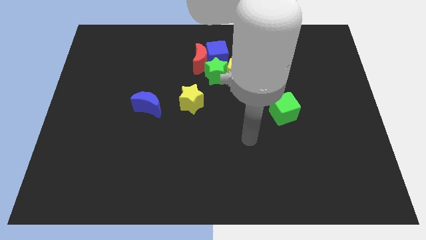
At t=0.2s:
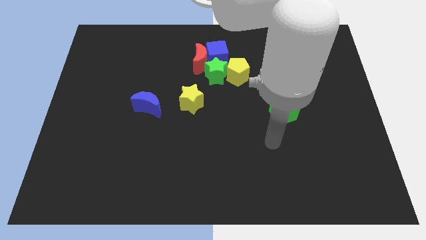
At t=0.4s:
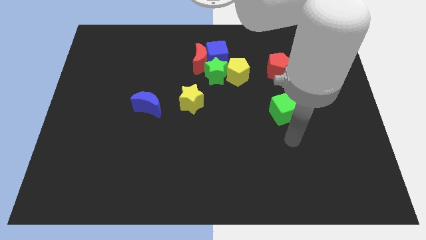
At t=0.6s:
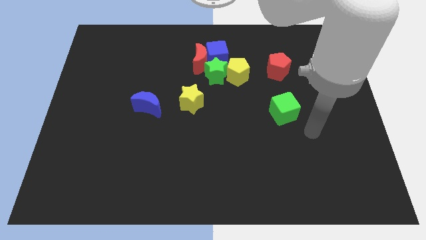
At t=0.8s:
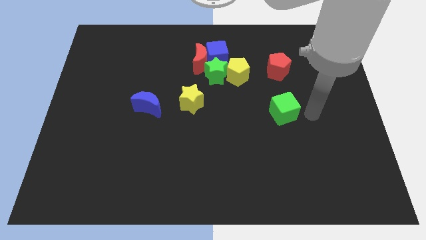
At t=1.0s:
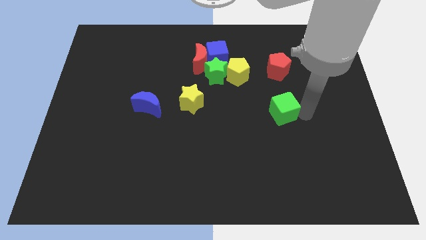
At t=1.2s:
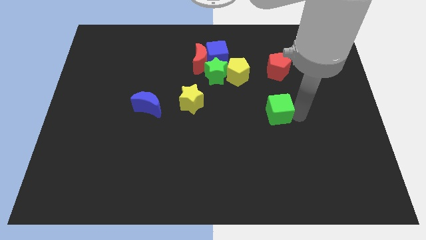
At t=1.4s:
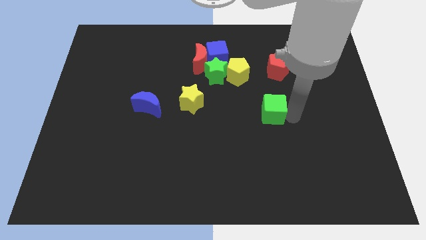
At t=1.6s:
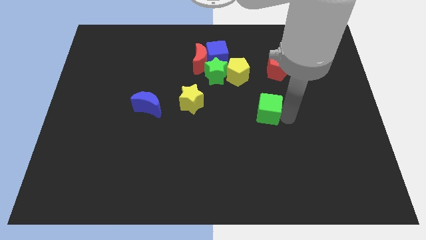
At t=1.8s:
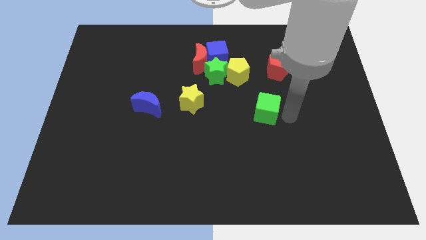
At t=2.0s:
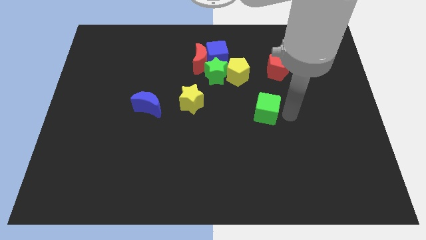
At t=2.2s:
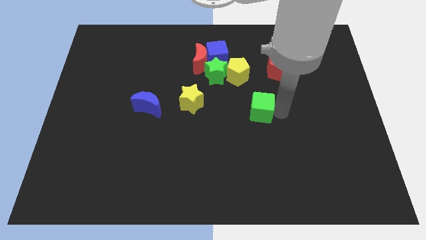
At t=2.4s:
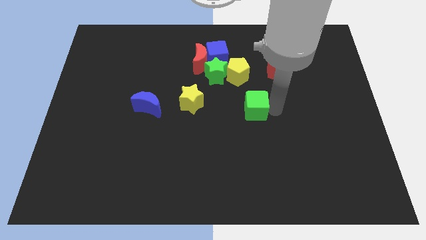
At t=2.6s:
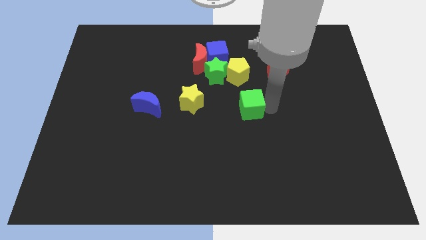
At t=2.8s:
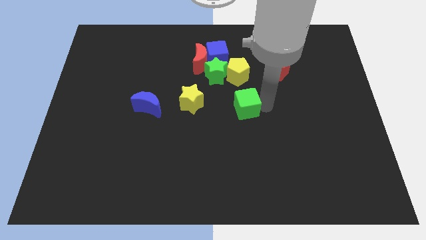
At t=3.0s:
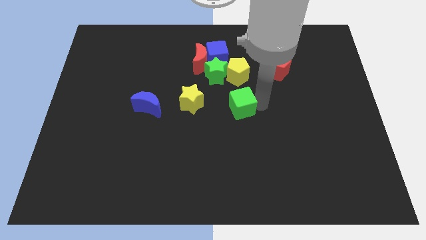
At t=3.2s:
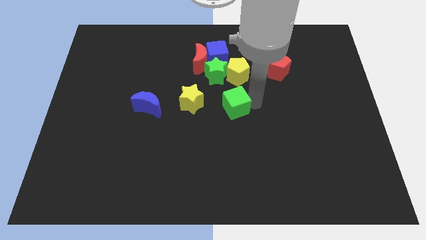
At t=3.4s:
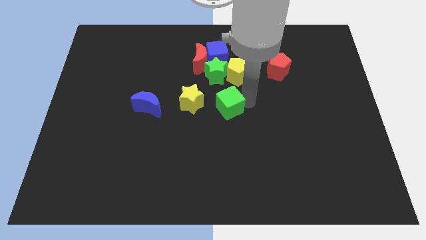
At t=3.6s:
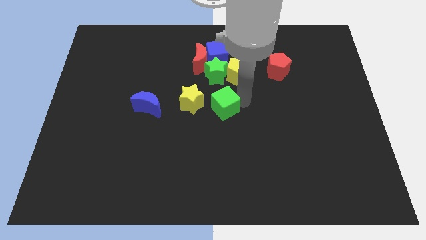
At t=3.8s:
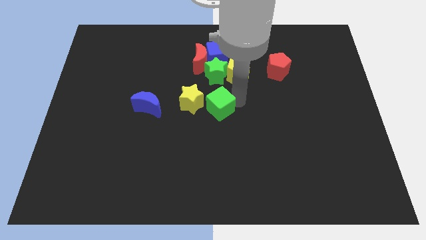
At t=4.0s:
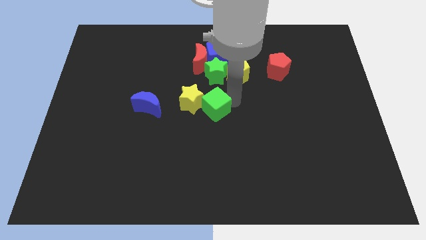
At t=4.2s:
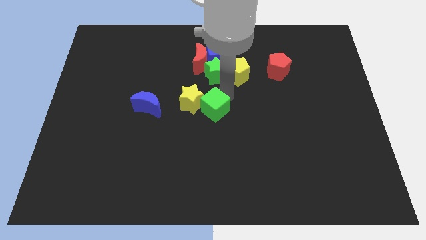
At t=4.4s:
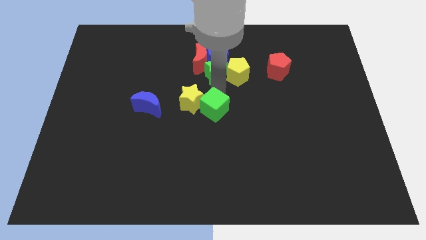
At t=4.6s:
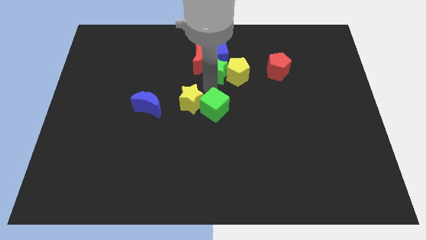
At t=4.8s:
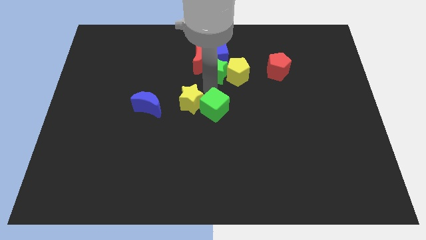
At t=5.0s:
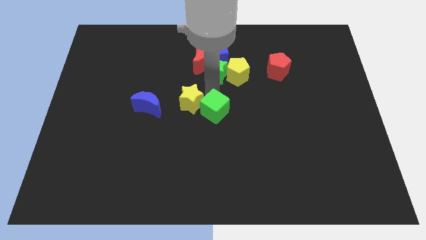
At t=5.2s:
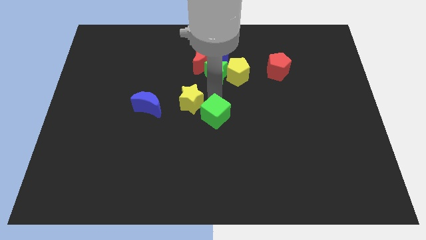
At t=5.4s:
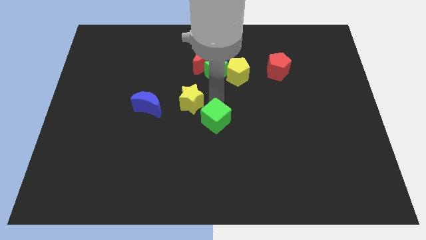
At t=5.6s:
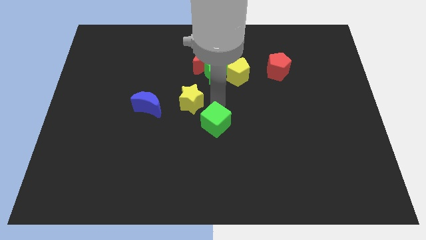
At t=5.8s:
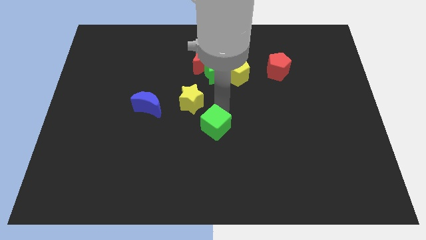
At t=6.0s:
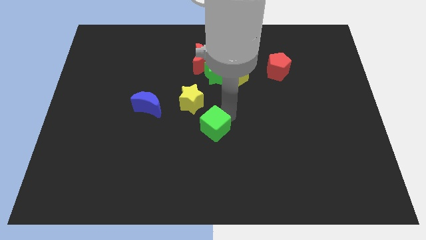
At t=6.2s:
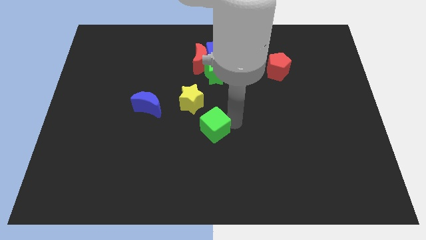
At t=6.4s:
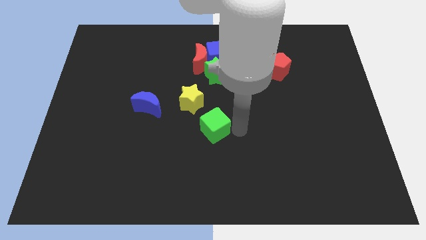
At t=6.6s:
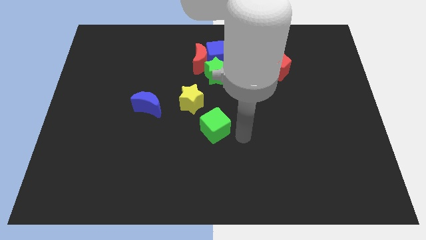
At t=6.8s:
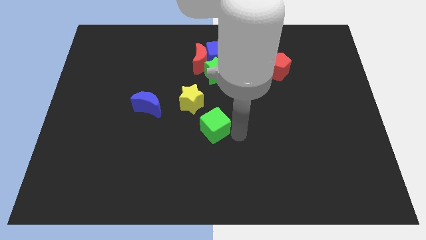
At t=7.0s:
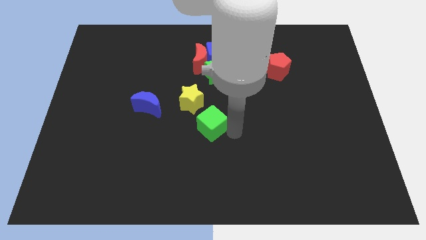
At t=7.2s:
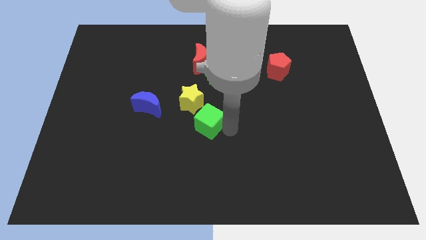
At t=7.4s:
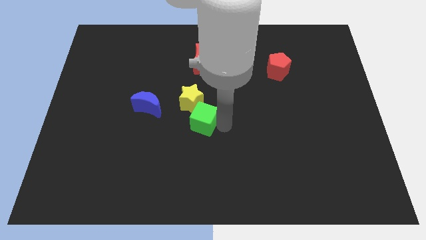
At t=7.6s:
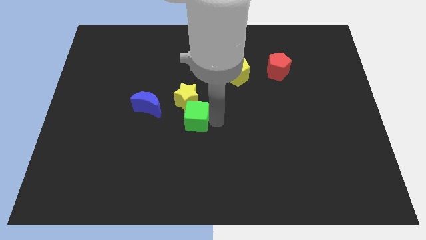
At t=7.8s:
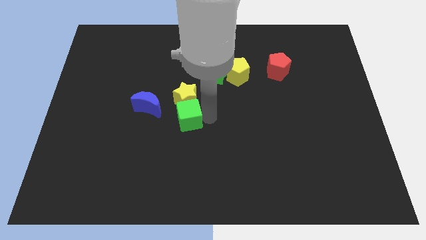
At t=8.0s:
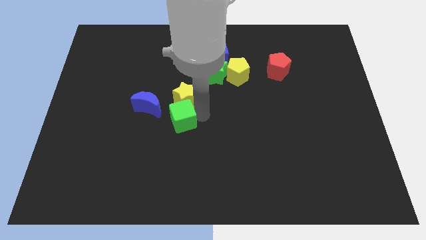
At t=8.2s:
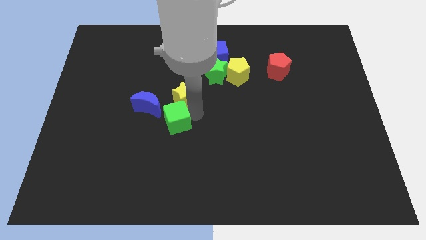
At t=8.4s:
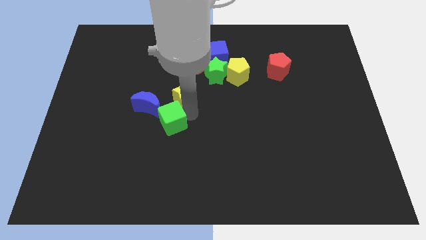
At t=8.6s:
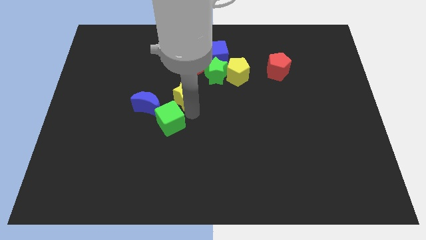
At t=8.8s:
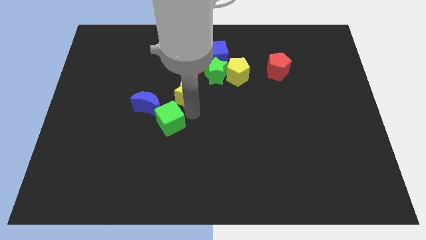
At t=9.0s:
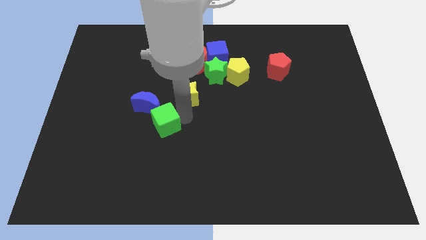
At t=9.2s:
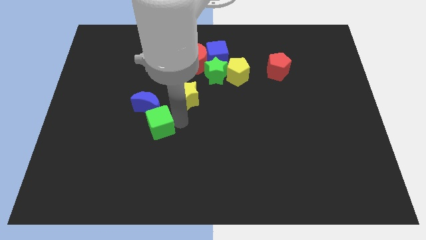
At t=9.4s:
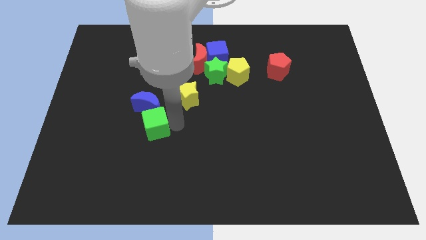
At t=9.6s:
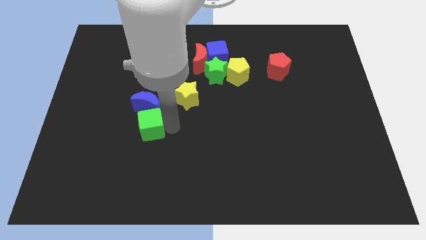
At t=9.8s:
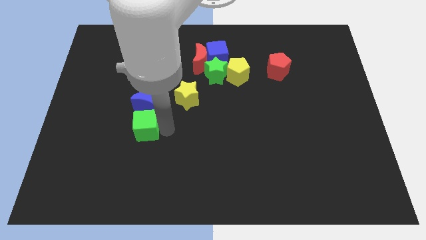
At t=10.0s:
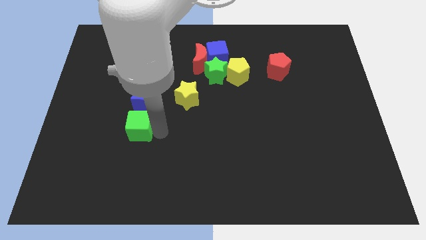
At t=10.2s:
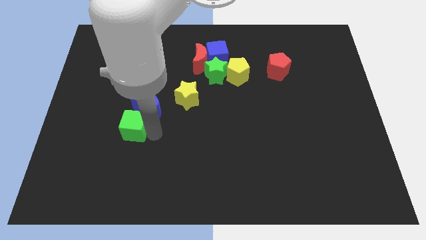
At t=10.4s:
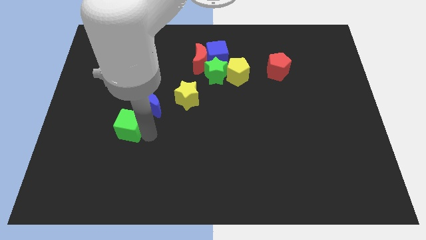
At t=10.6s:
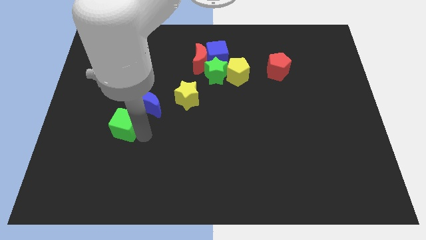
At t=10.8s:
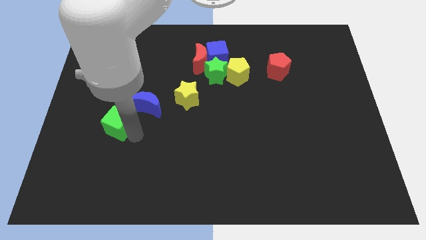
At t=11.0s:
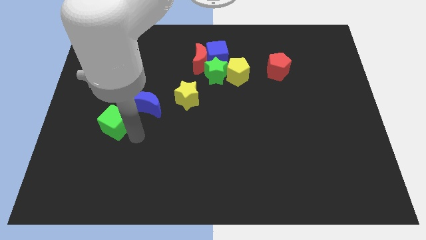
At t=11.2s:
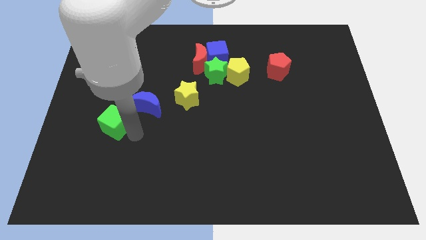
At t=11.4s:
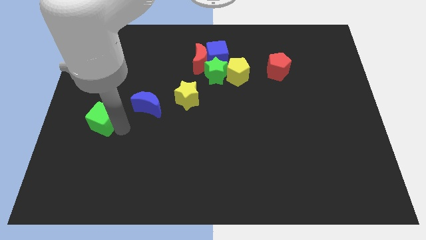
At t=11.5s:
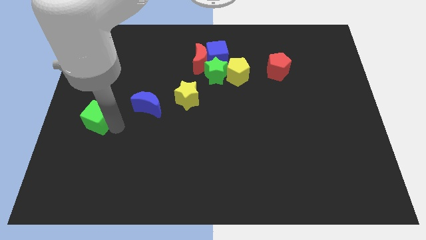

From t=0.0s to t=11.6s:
move the green cube to the center left
